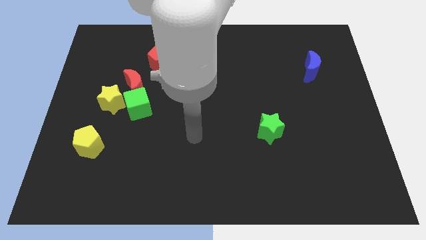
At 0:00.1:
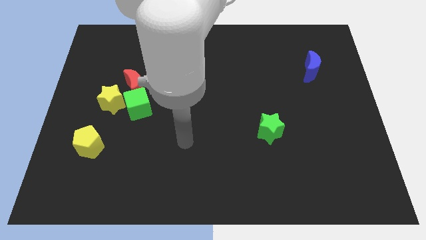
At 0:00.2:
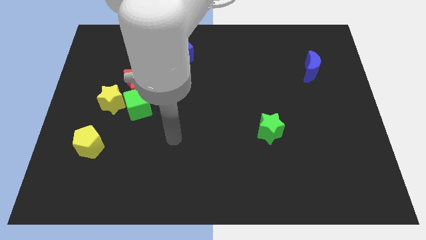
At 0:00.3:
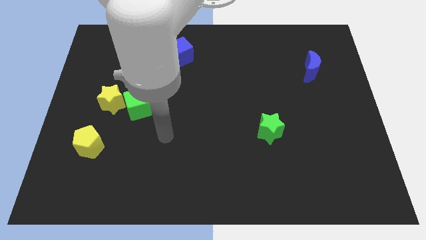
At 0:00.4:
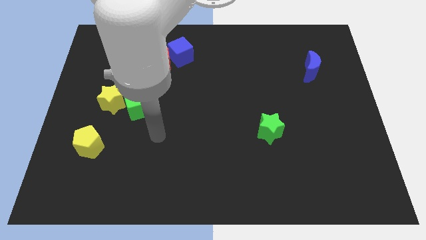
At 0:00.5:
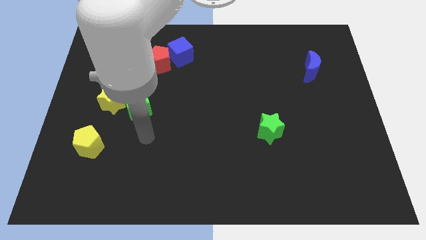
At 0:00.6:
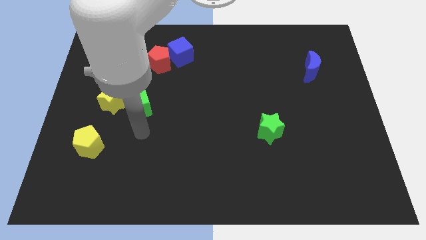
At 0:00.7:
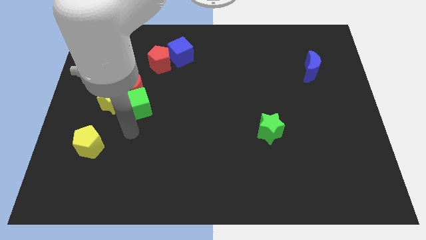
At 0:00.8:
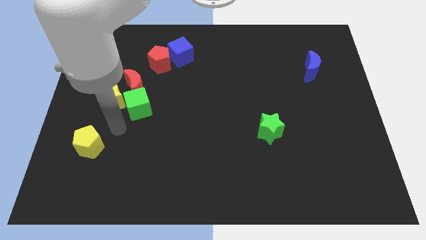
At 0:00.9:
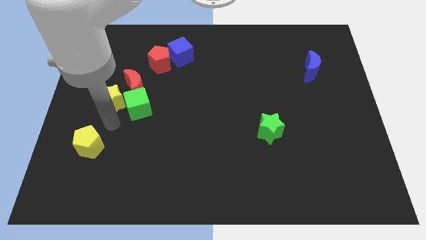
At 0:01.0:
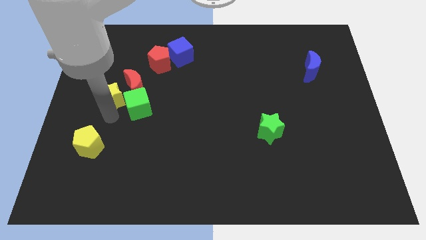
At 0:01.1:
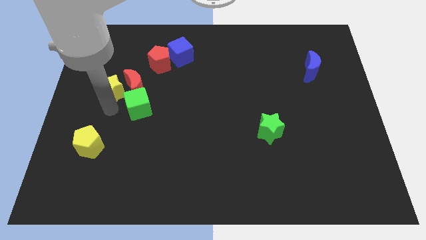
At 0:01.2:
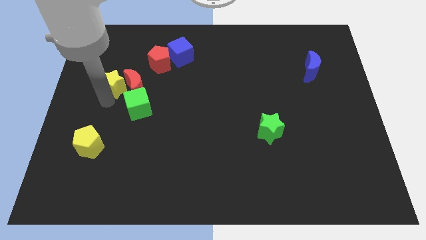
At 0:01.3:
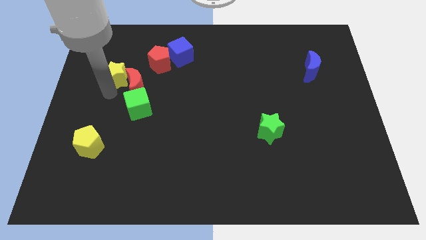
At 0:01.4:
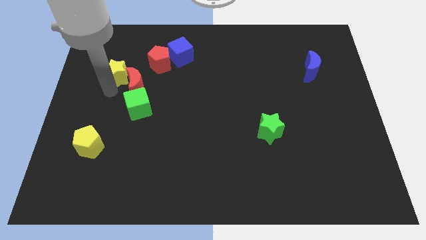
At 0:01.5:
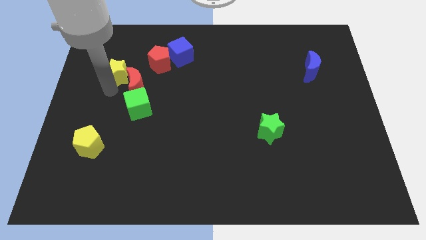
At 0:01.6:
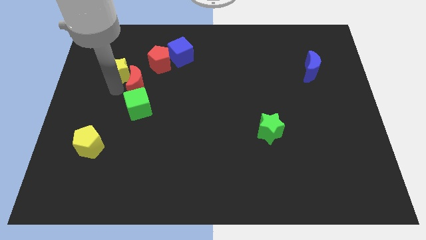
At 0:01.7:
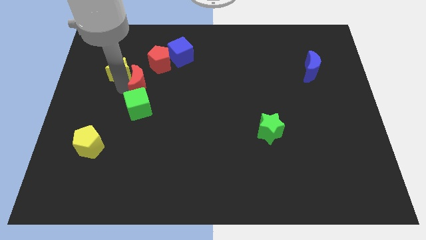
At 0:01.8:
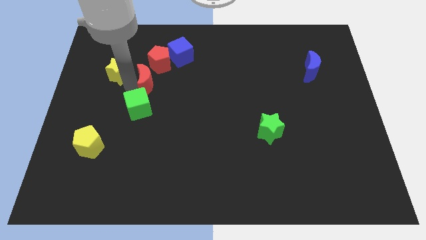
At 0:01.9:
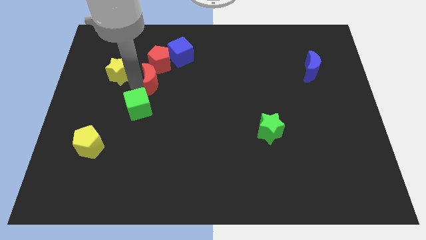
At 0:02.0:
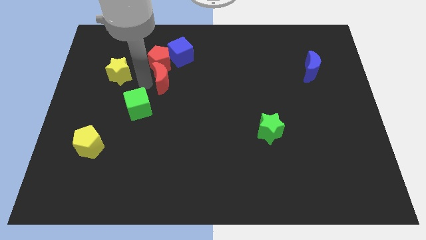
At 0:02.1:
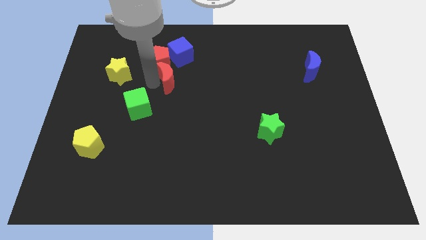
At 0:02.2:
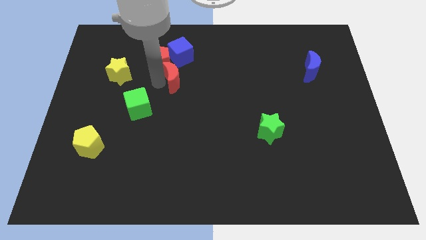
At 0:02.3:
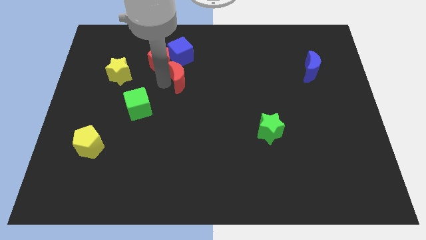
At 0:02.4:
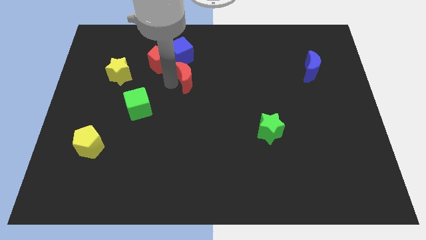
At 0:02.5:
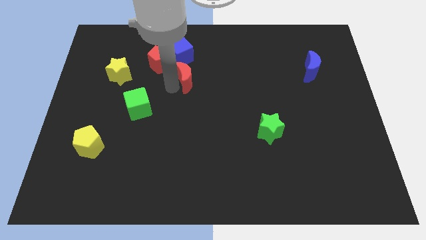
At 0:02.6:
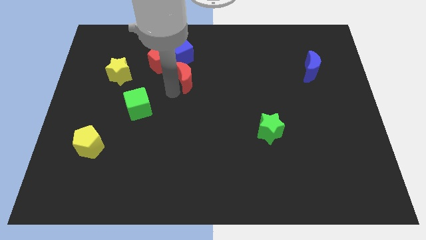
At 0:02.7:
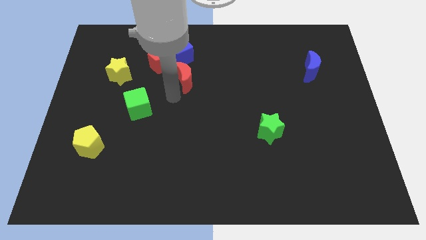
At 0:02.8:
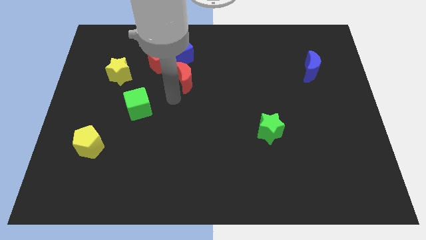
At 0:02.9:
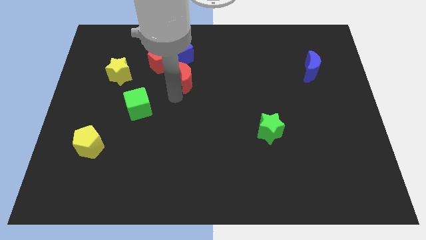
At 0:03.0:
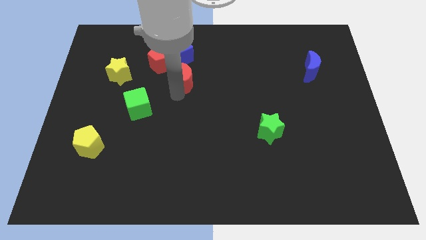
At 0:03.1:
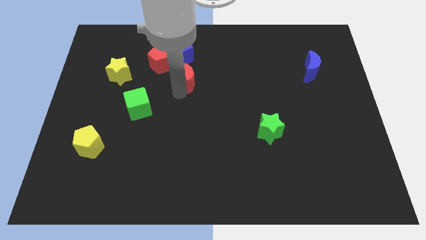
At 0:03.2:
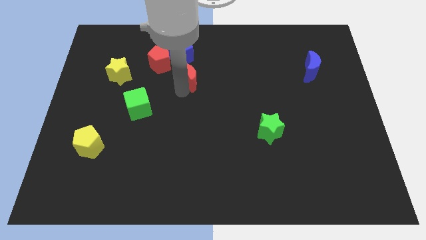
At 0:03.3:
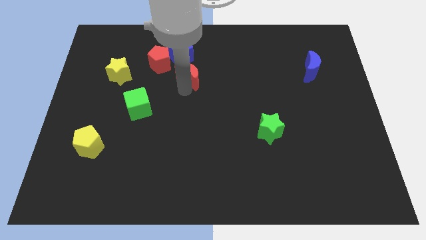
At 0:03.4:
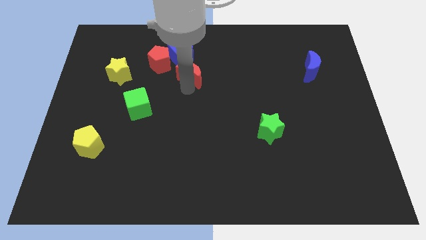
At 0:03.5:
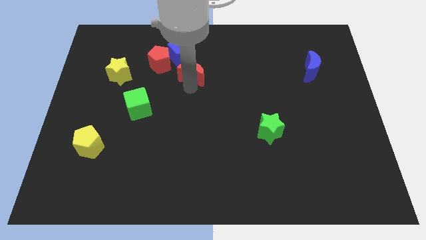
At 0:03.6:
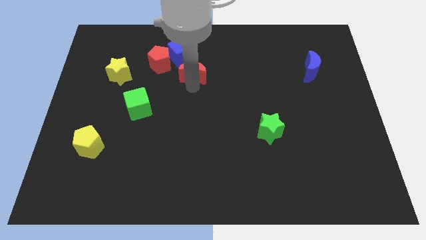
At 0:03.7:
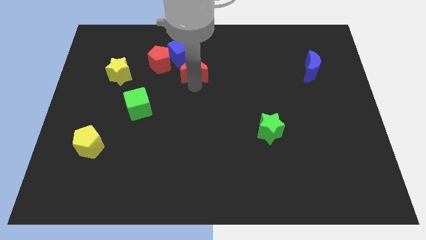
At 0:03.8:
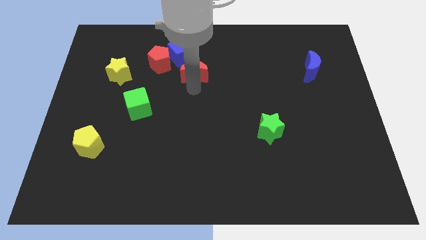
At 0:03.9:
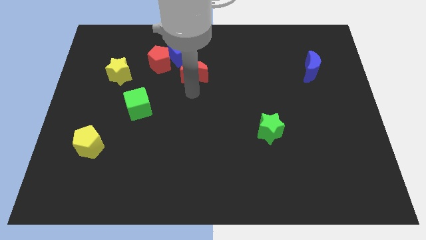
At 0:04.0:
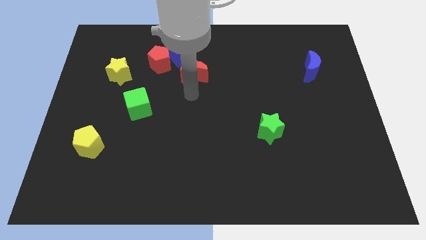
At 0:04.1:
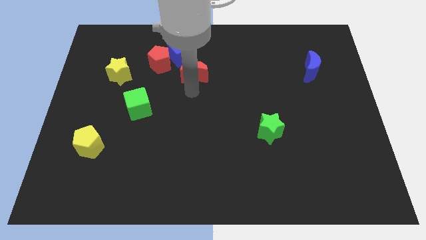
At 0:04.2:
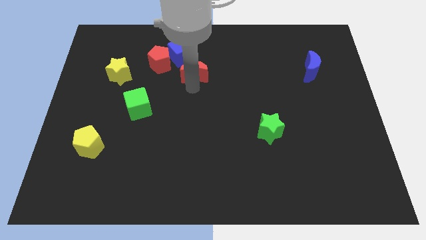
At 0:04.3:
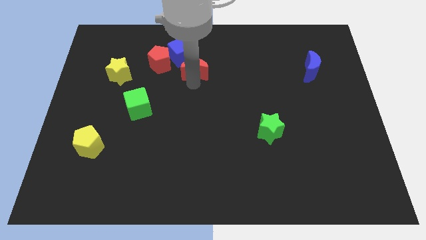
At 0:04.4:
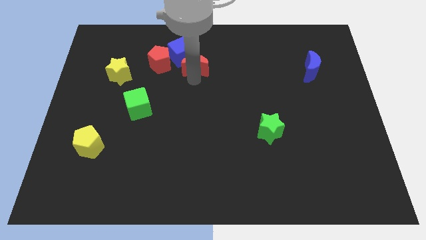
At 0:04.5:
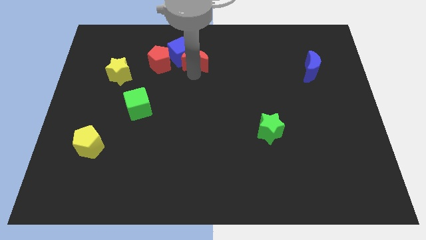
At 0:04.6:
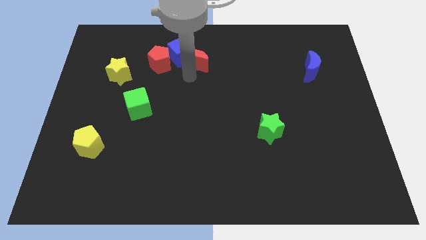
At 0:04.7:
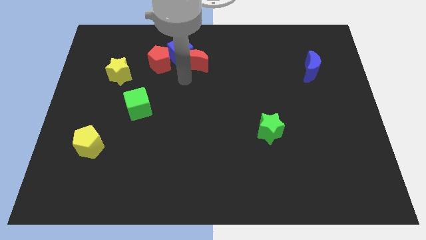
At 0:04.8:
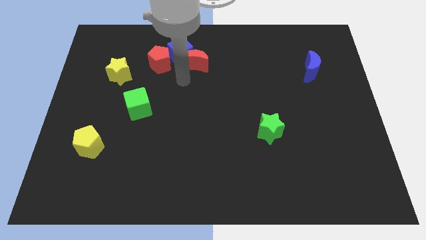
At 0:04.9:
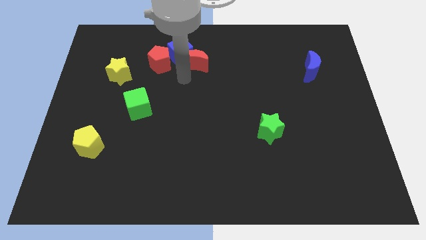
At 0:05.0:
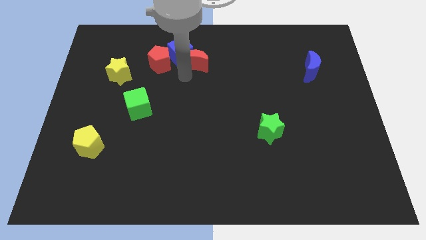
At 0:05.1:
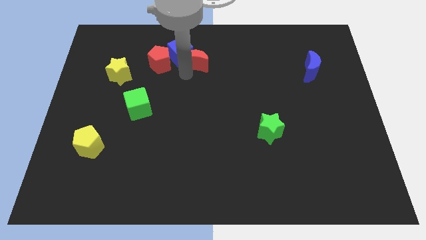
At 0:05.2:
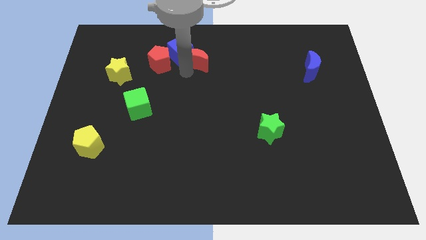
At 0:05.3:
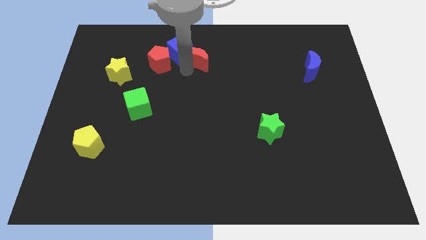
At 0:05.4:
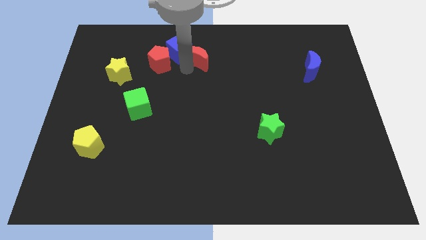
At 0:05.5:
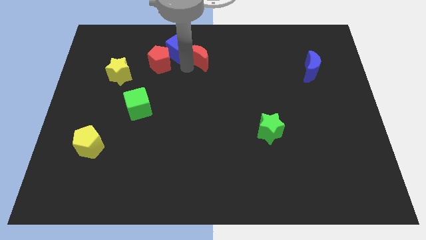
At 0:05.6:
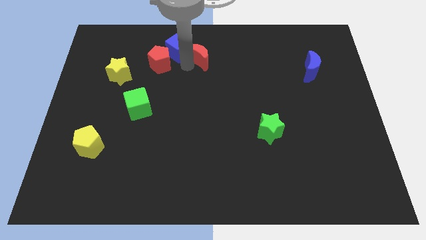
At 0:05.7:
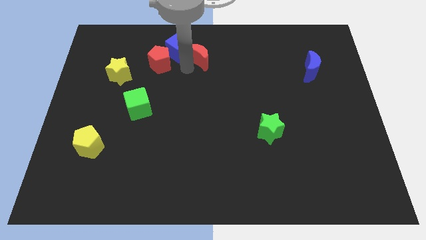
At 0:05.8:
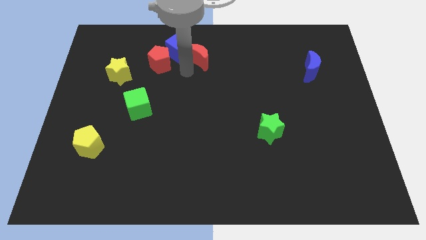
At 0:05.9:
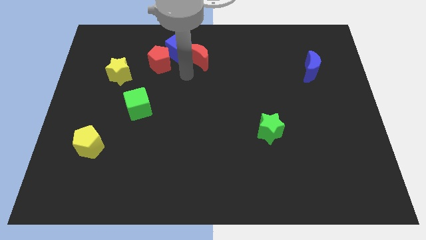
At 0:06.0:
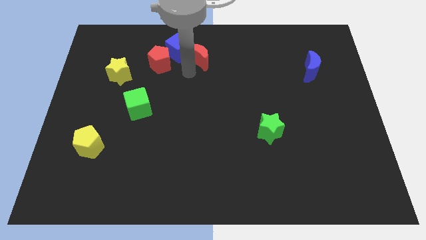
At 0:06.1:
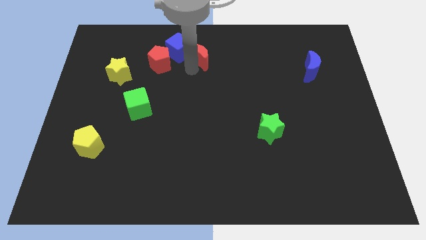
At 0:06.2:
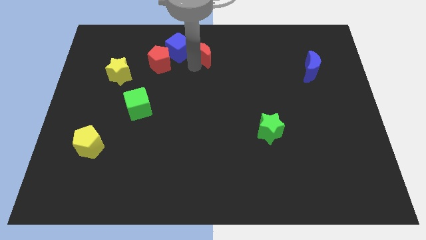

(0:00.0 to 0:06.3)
move the red moon to the top

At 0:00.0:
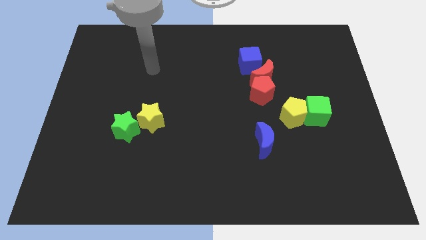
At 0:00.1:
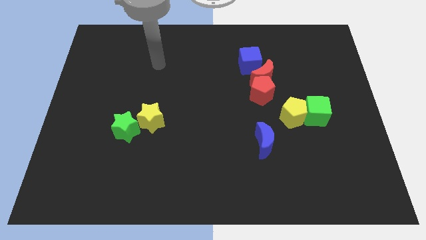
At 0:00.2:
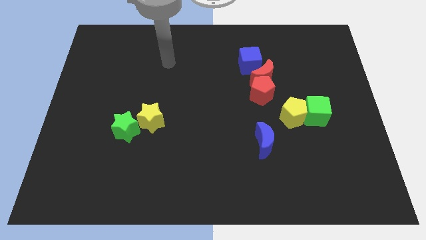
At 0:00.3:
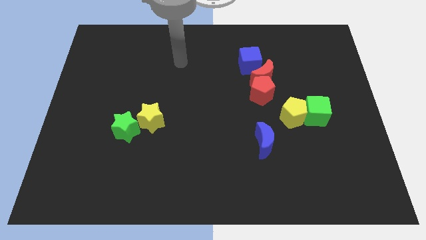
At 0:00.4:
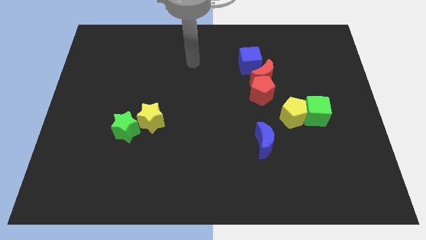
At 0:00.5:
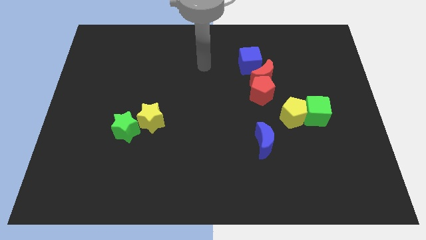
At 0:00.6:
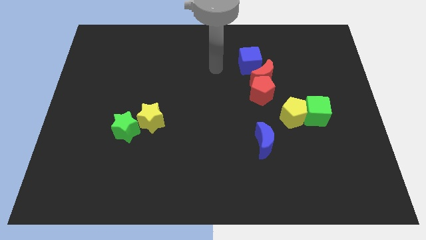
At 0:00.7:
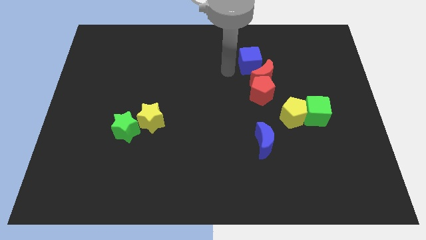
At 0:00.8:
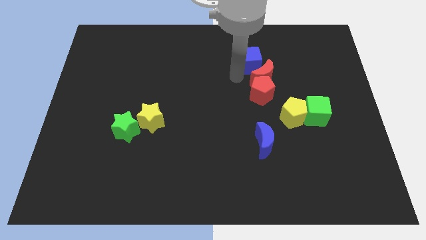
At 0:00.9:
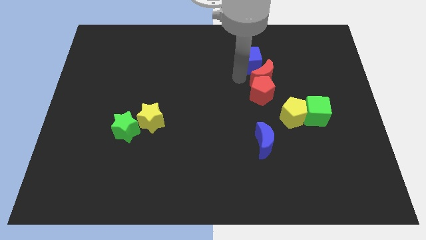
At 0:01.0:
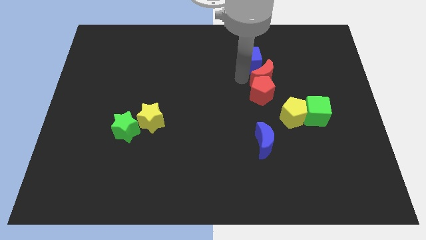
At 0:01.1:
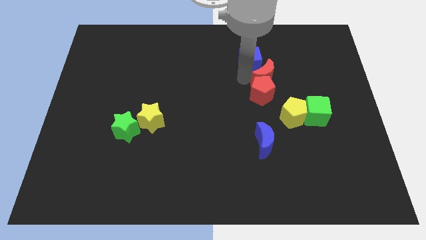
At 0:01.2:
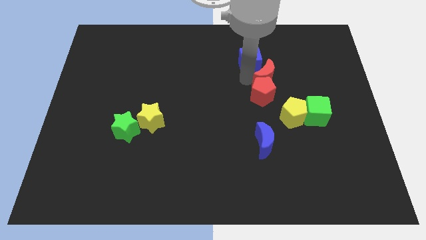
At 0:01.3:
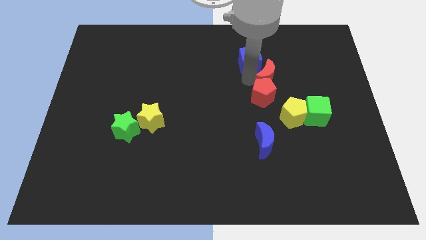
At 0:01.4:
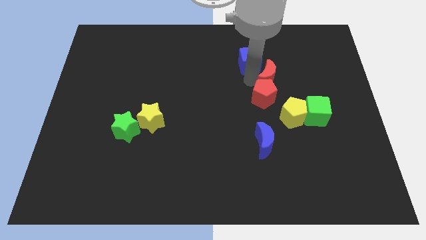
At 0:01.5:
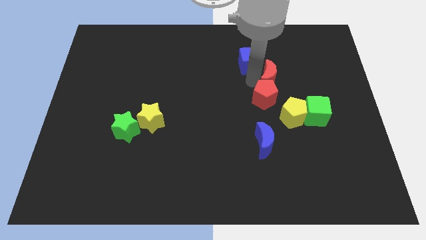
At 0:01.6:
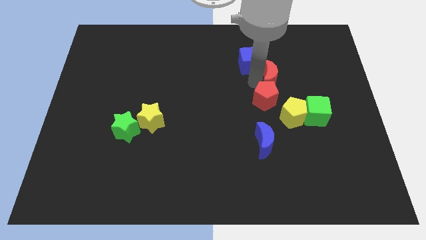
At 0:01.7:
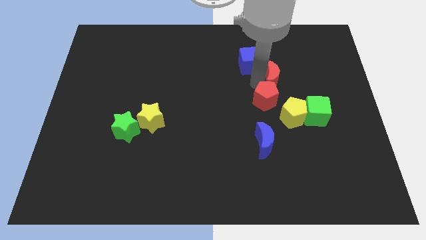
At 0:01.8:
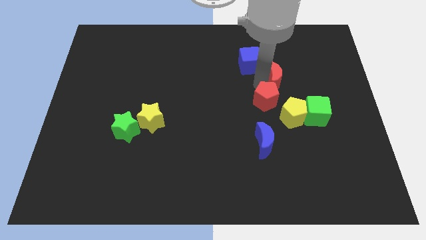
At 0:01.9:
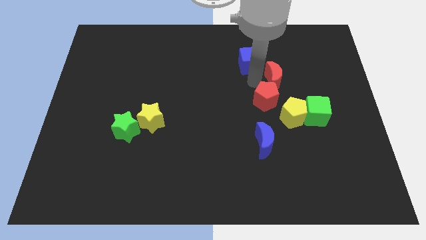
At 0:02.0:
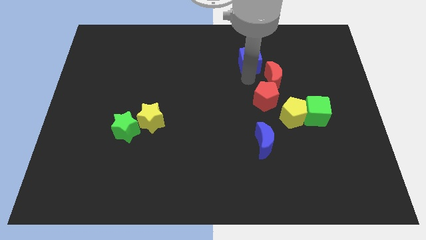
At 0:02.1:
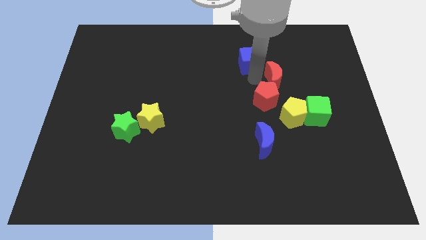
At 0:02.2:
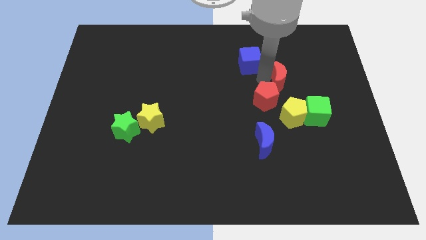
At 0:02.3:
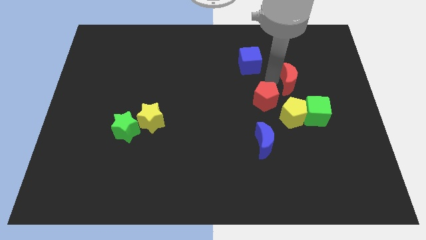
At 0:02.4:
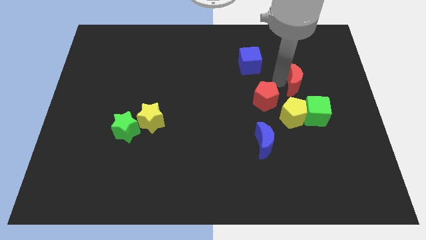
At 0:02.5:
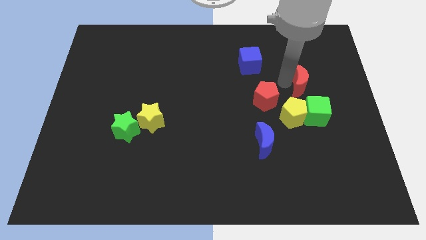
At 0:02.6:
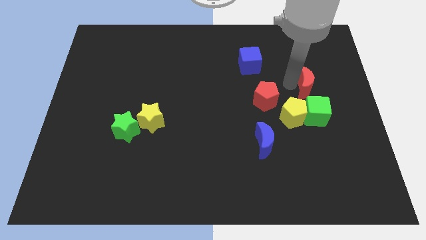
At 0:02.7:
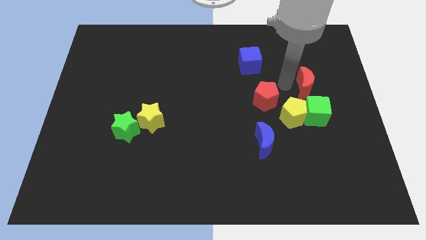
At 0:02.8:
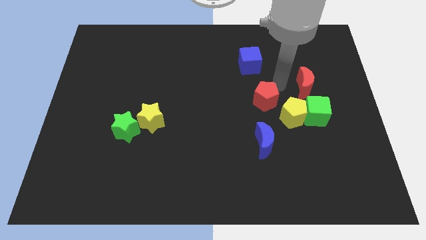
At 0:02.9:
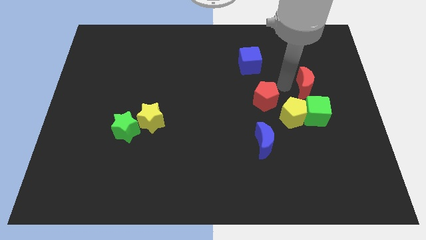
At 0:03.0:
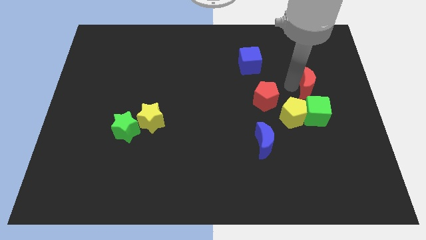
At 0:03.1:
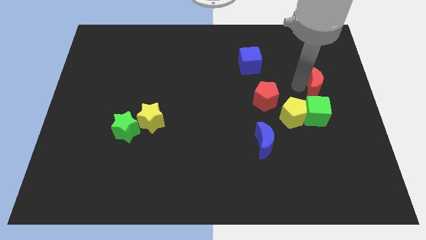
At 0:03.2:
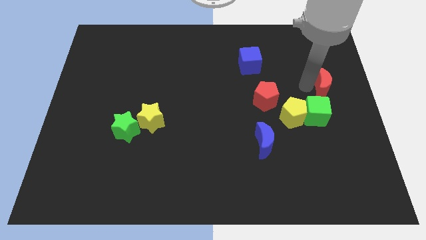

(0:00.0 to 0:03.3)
slide the red moon to the center right
